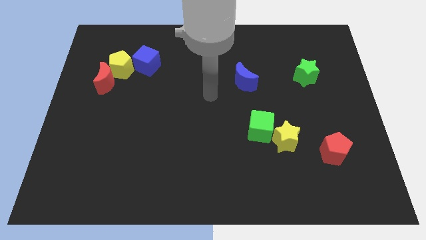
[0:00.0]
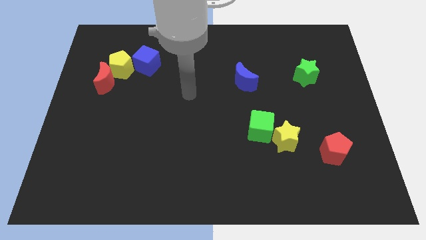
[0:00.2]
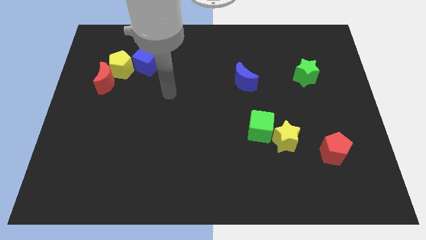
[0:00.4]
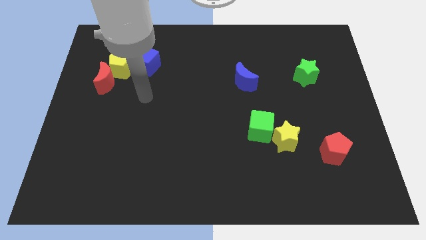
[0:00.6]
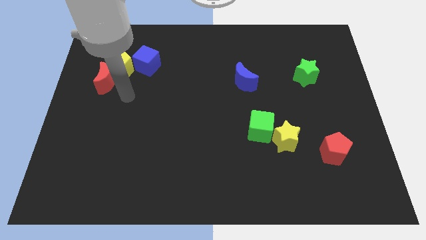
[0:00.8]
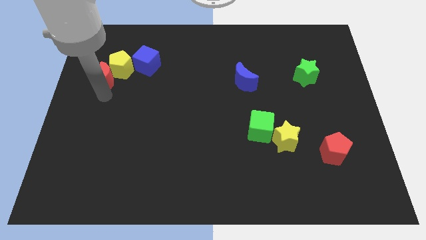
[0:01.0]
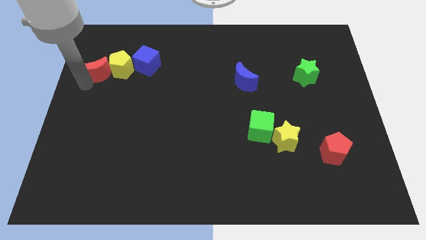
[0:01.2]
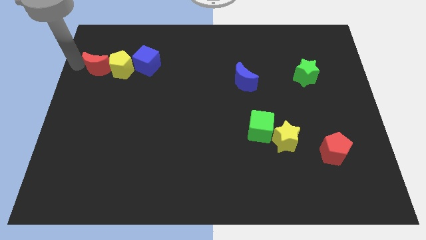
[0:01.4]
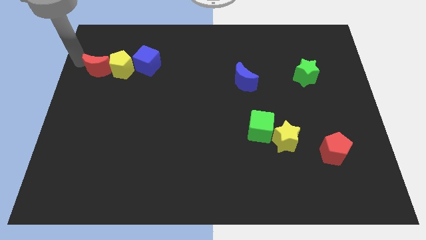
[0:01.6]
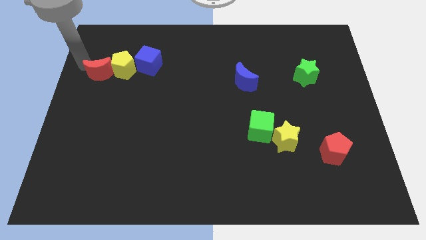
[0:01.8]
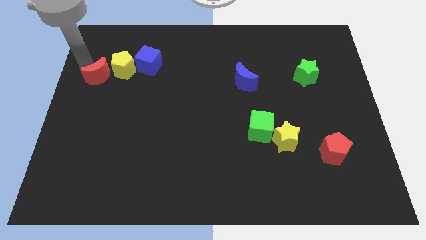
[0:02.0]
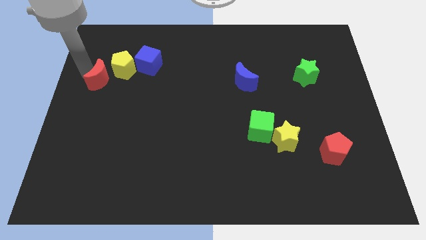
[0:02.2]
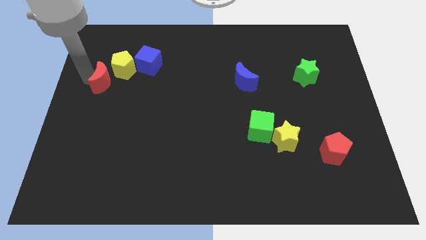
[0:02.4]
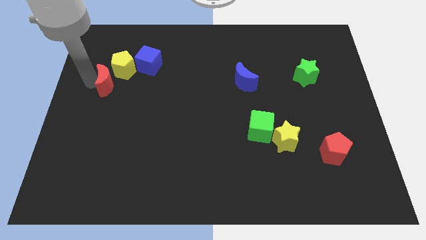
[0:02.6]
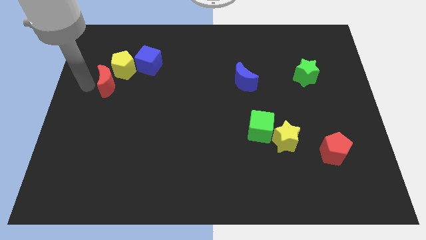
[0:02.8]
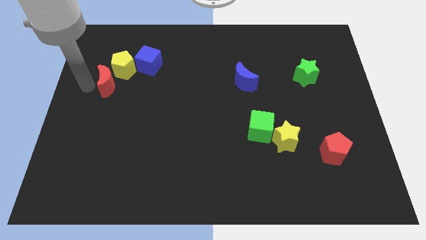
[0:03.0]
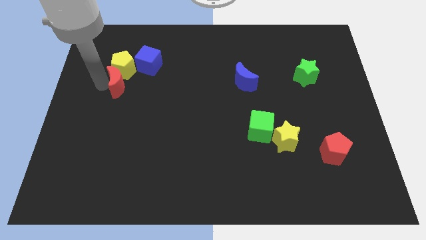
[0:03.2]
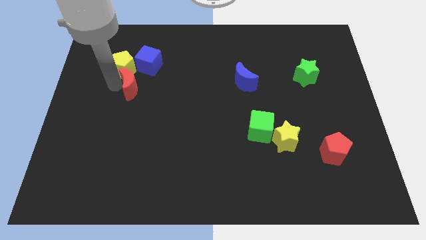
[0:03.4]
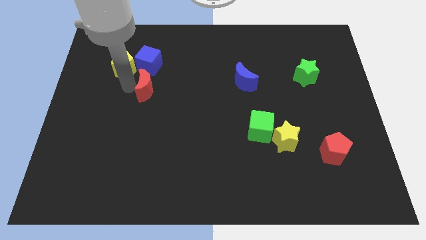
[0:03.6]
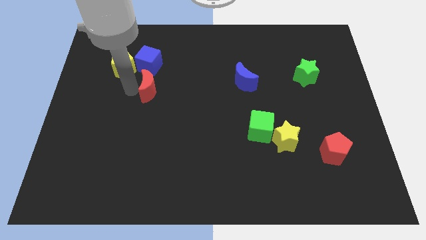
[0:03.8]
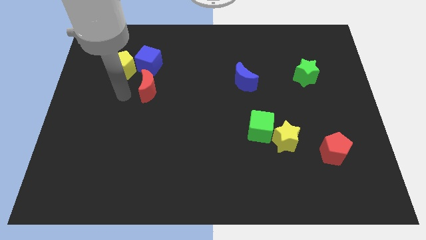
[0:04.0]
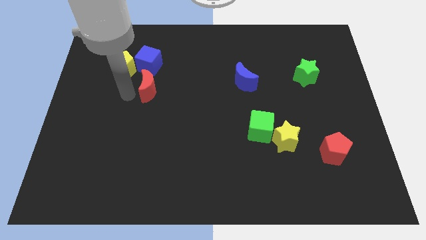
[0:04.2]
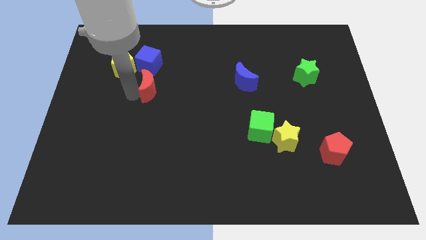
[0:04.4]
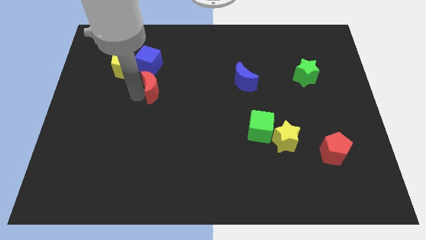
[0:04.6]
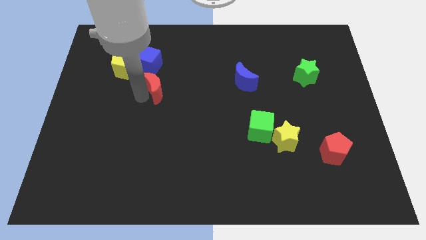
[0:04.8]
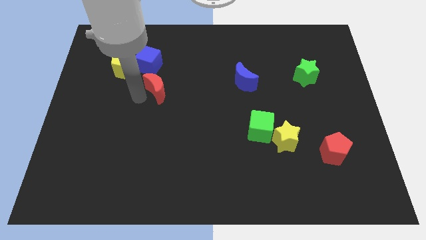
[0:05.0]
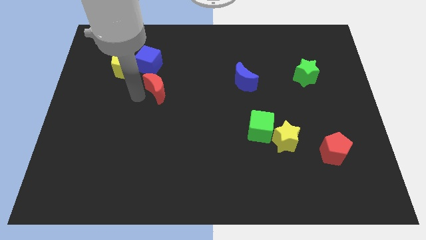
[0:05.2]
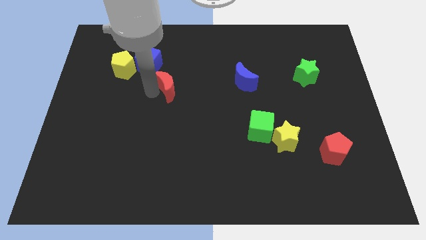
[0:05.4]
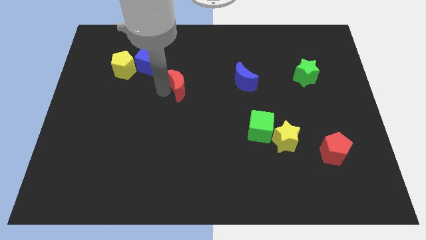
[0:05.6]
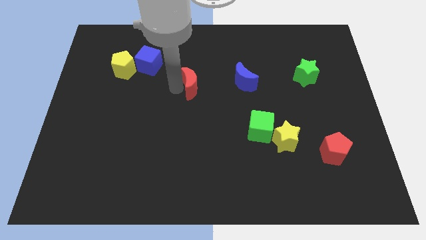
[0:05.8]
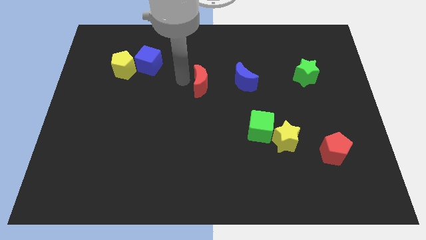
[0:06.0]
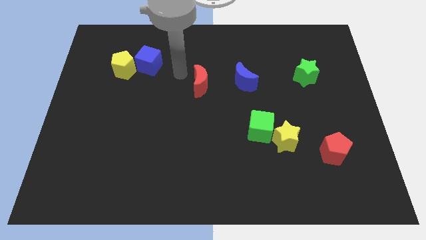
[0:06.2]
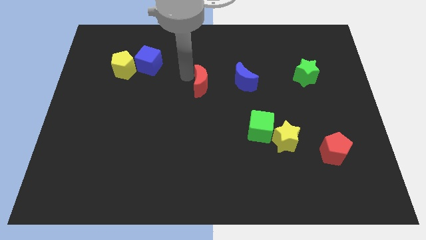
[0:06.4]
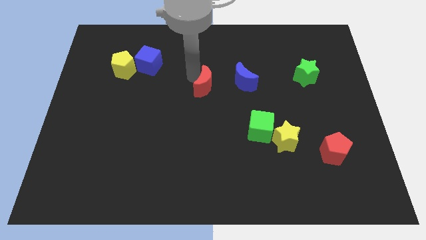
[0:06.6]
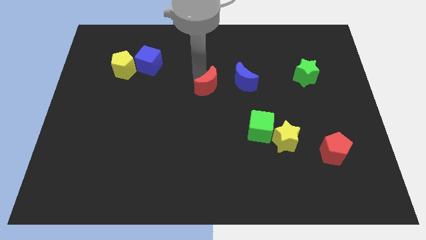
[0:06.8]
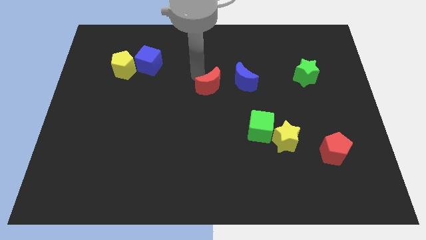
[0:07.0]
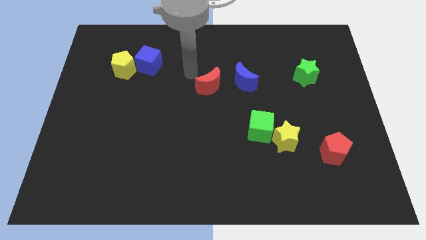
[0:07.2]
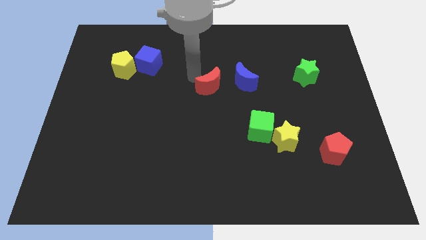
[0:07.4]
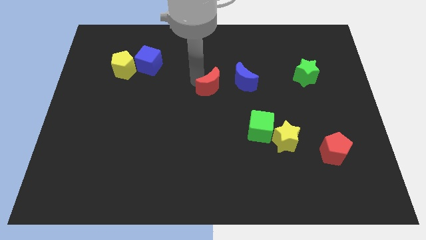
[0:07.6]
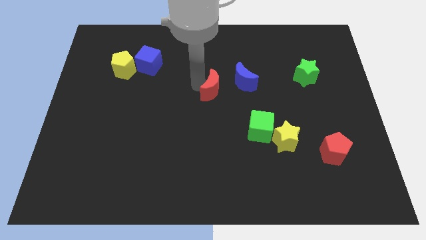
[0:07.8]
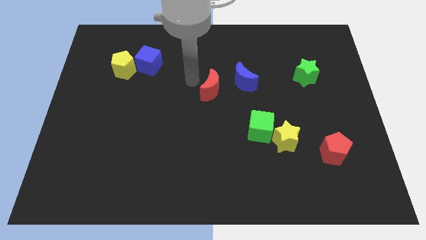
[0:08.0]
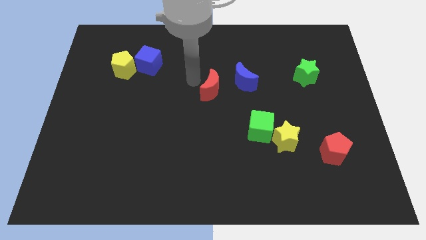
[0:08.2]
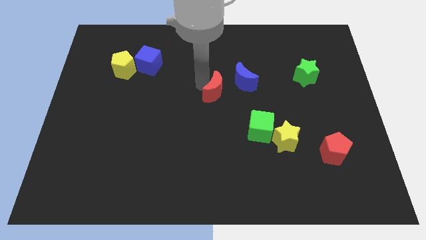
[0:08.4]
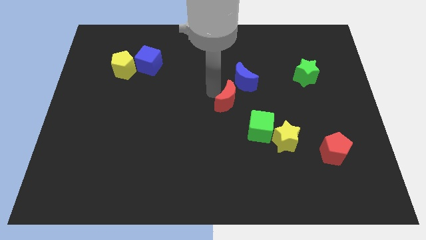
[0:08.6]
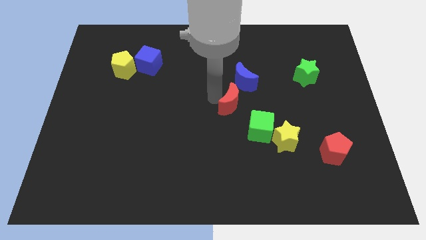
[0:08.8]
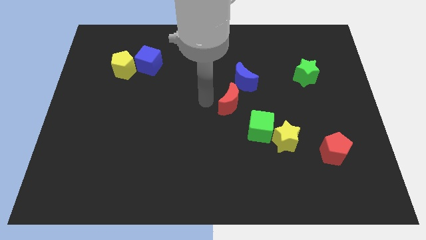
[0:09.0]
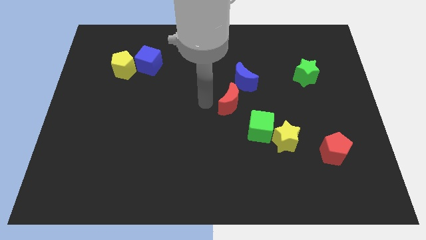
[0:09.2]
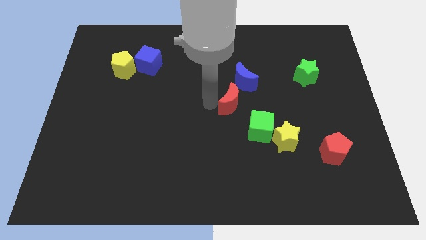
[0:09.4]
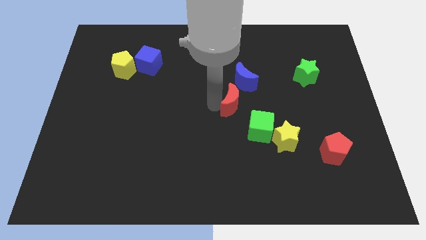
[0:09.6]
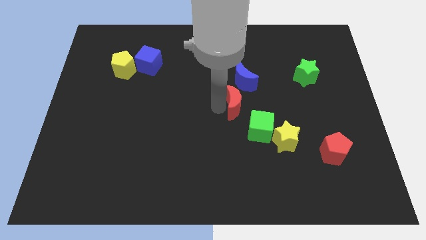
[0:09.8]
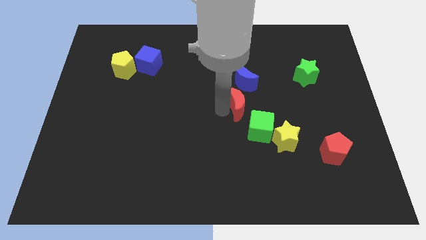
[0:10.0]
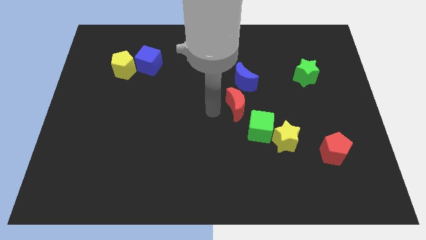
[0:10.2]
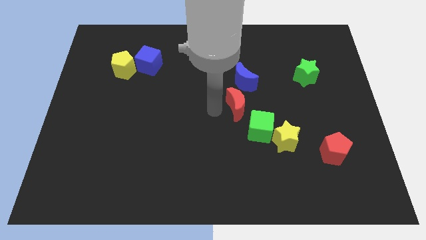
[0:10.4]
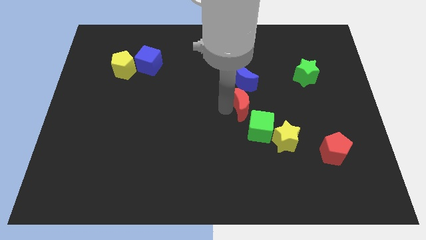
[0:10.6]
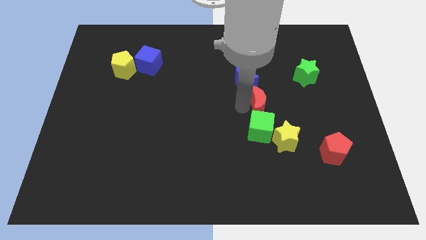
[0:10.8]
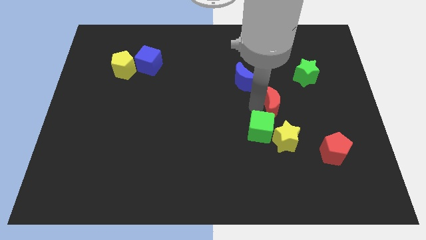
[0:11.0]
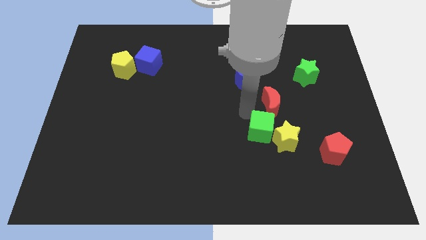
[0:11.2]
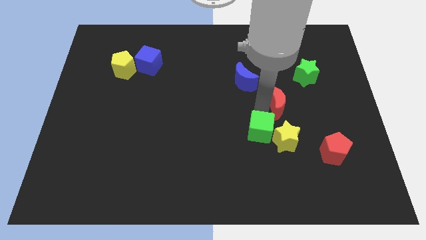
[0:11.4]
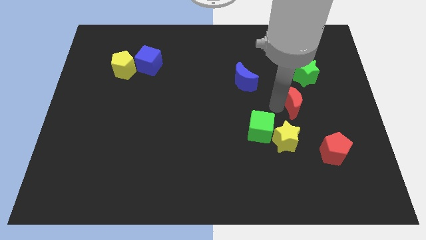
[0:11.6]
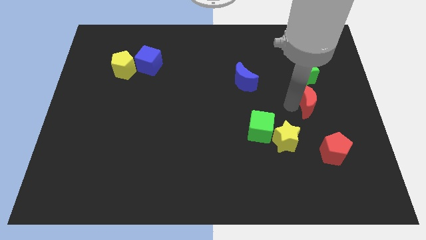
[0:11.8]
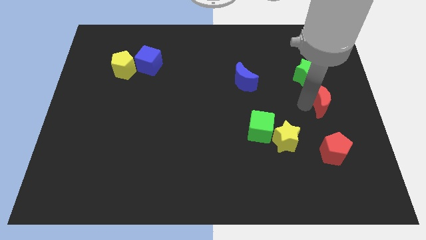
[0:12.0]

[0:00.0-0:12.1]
slide the red moon to the right side of the board
